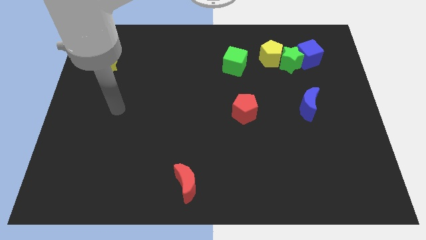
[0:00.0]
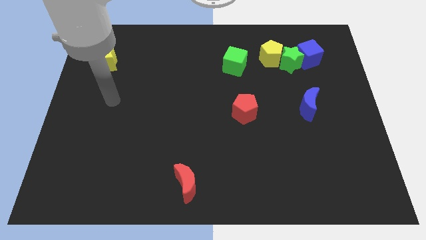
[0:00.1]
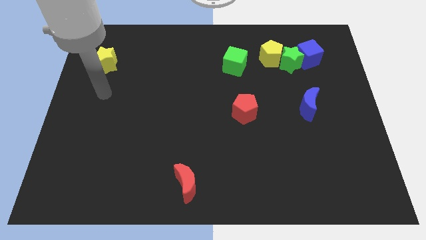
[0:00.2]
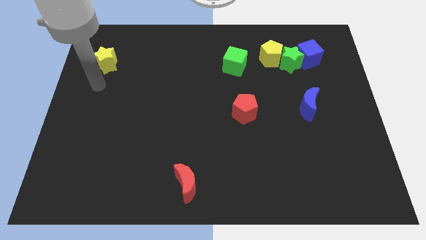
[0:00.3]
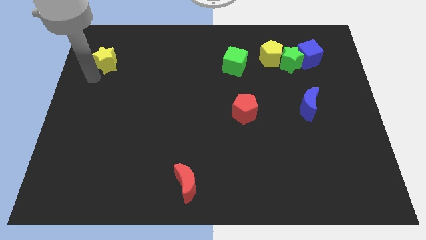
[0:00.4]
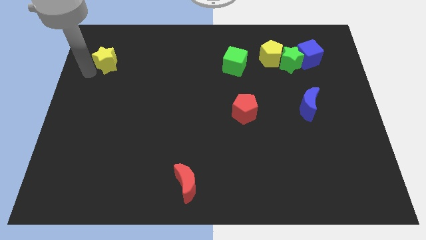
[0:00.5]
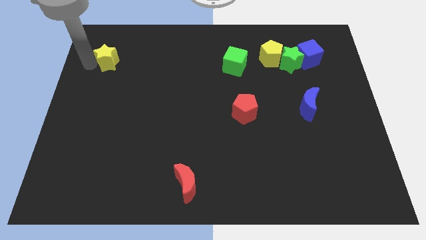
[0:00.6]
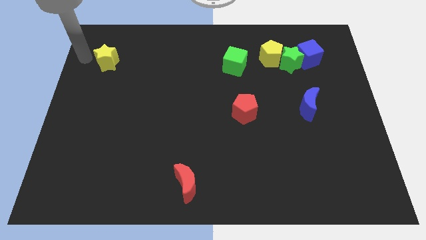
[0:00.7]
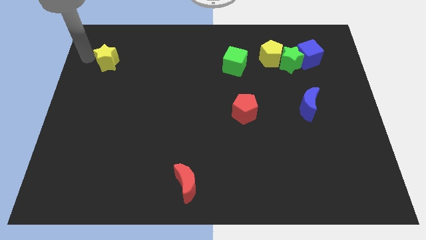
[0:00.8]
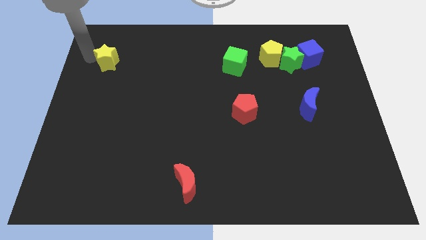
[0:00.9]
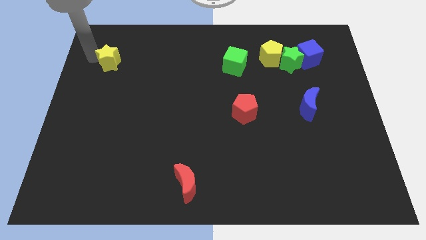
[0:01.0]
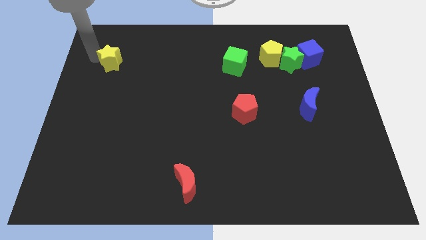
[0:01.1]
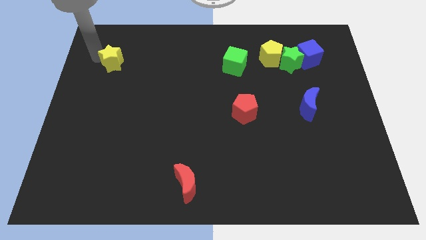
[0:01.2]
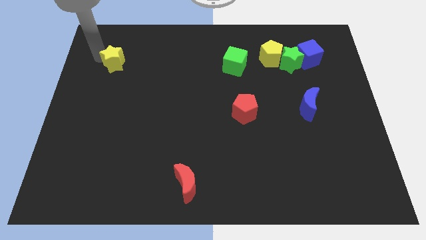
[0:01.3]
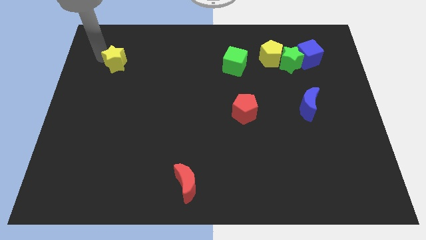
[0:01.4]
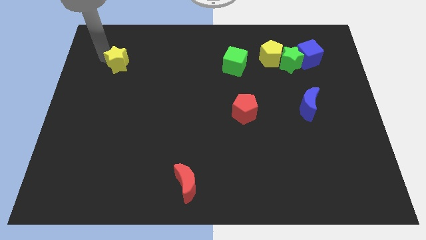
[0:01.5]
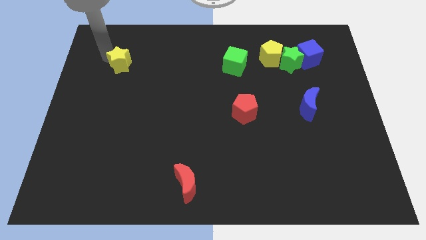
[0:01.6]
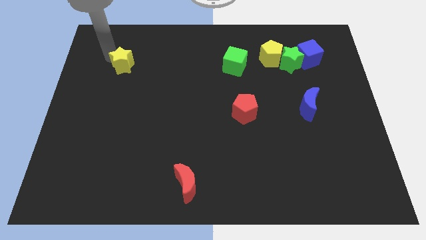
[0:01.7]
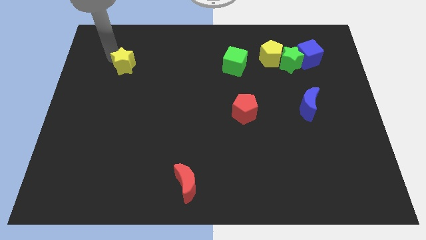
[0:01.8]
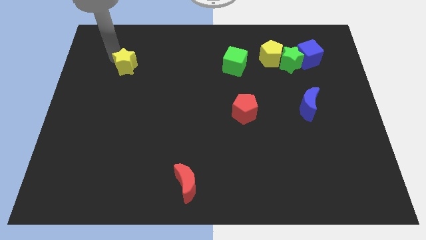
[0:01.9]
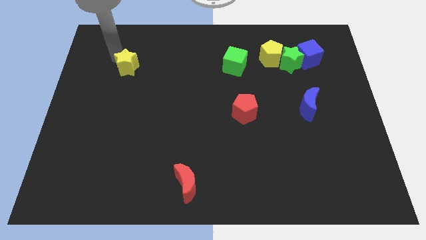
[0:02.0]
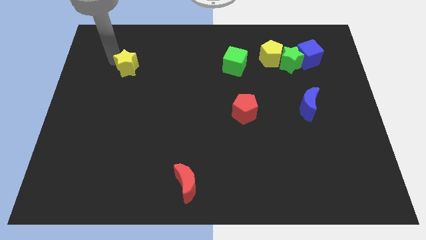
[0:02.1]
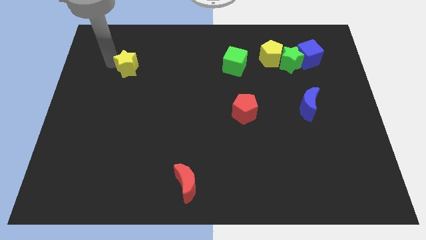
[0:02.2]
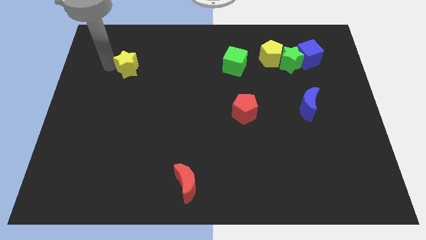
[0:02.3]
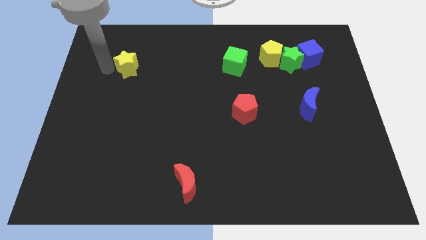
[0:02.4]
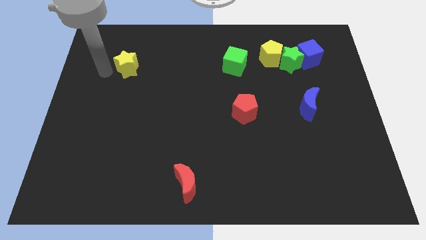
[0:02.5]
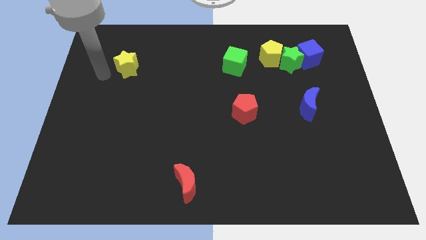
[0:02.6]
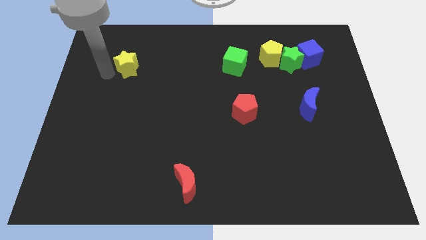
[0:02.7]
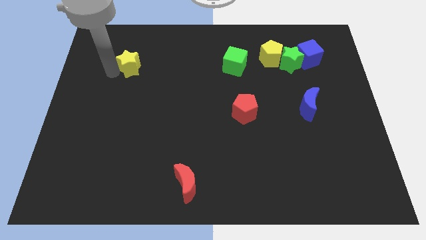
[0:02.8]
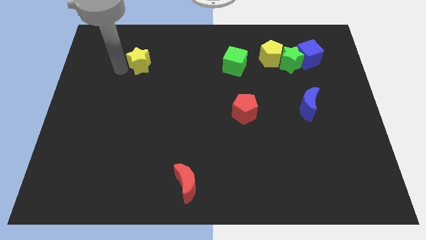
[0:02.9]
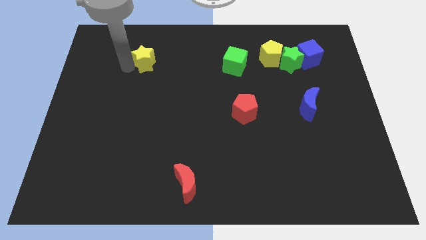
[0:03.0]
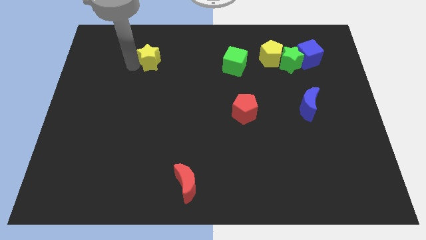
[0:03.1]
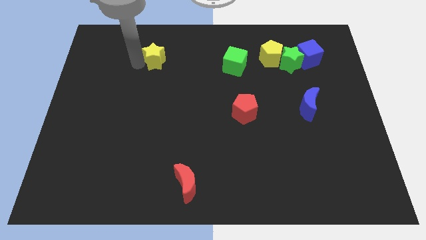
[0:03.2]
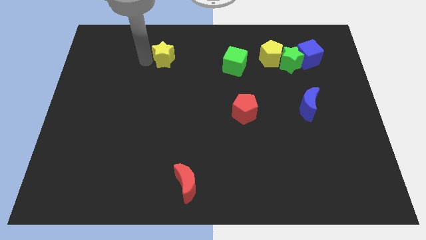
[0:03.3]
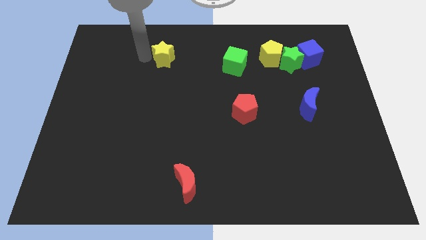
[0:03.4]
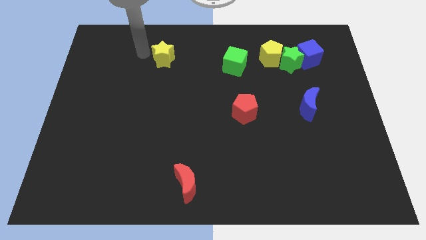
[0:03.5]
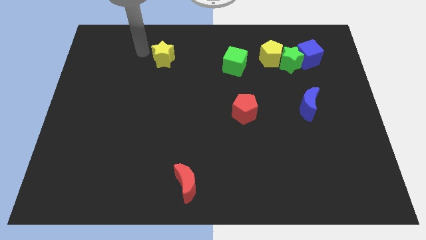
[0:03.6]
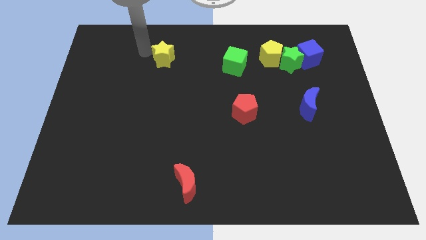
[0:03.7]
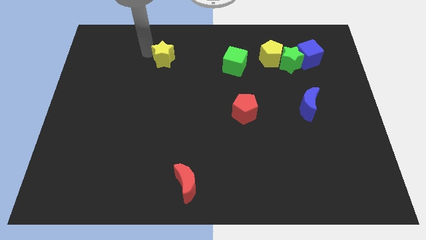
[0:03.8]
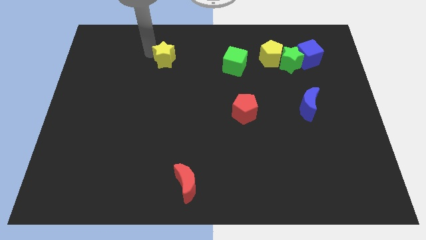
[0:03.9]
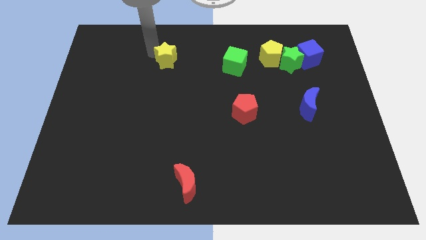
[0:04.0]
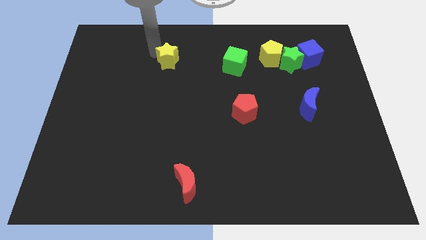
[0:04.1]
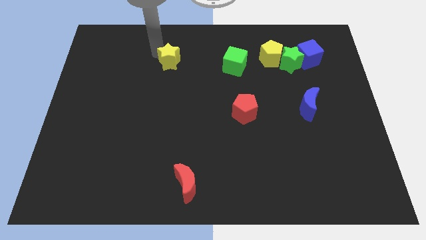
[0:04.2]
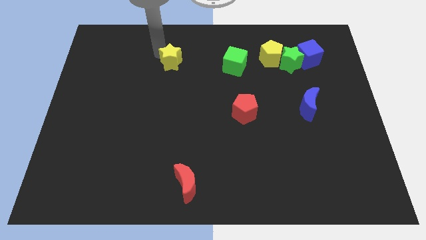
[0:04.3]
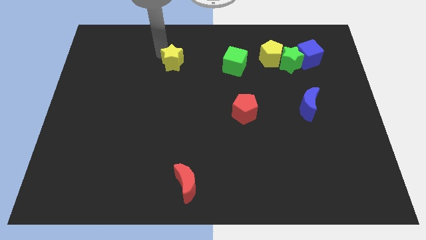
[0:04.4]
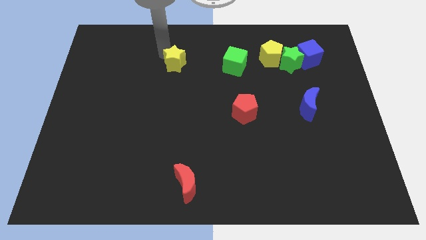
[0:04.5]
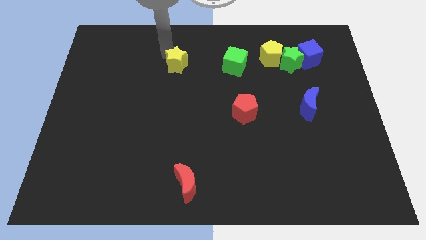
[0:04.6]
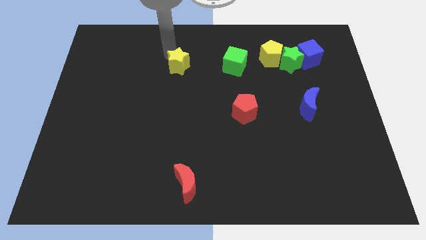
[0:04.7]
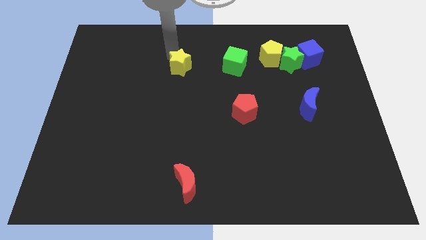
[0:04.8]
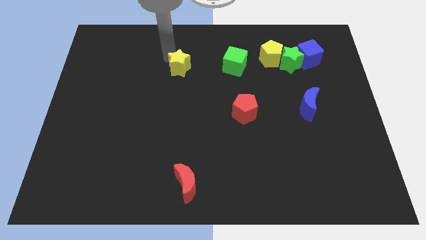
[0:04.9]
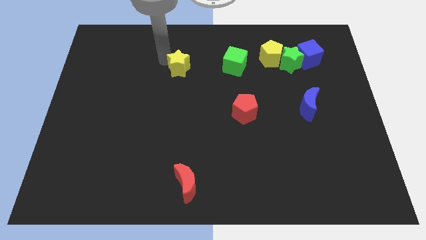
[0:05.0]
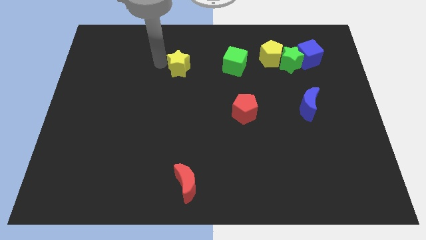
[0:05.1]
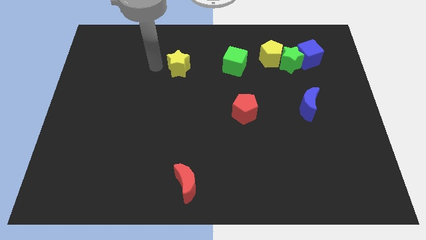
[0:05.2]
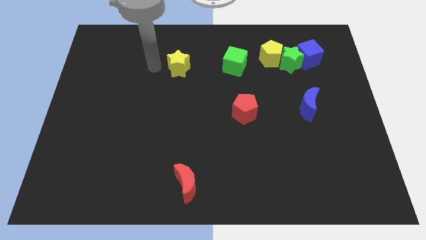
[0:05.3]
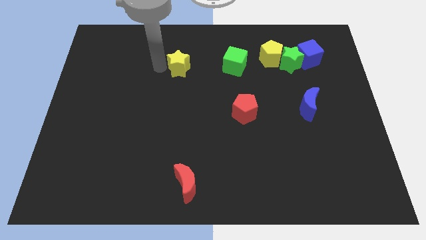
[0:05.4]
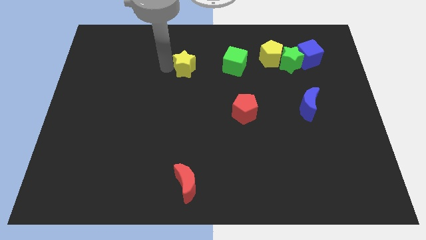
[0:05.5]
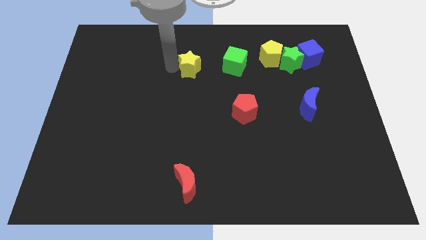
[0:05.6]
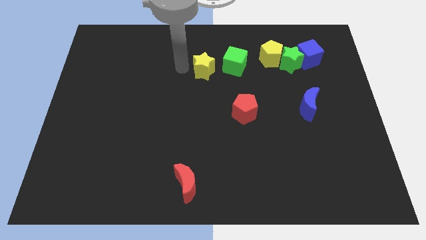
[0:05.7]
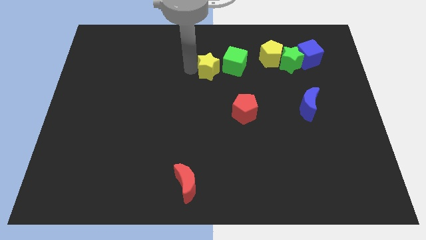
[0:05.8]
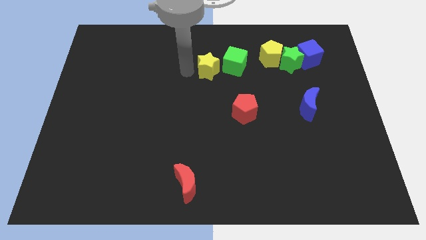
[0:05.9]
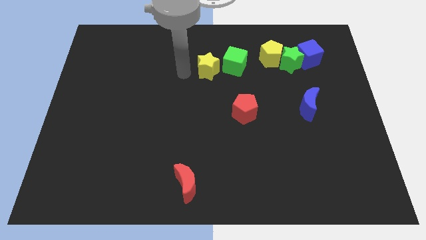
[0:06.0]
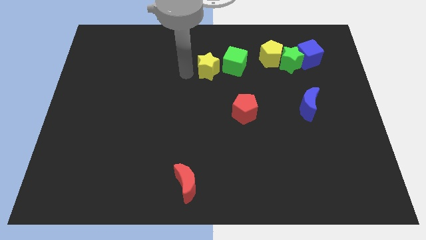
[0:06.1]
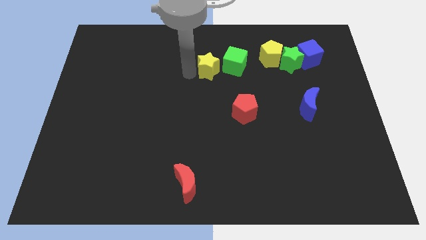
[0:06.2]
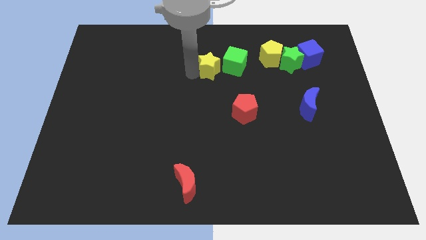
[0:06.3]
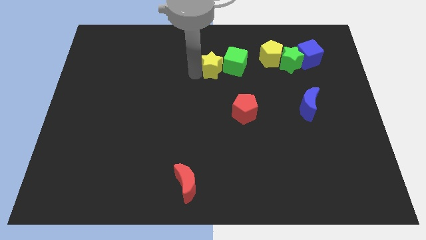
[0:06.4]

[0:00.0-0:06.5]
push the yellow star towards the green cube

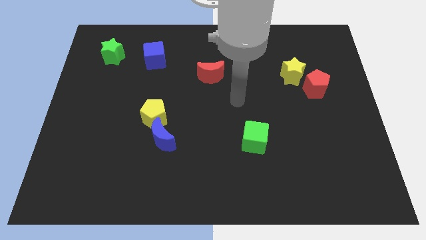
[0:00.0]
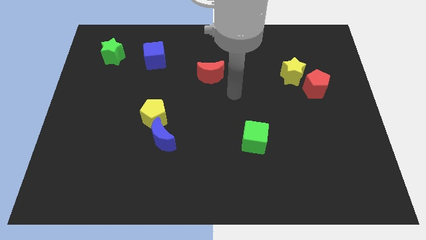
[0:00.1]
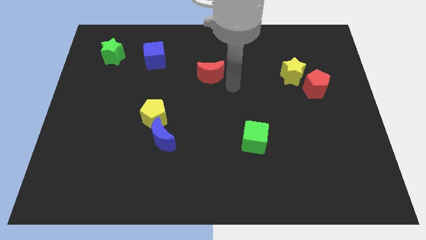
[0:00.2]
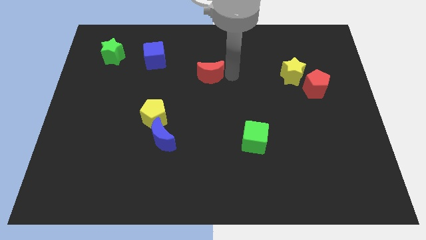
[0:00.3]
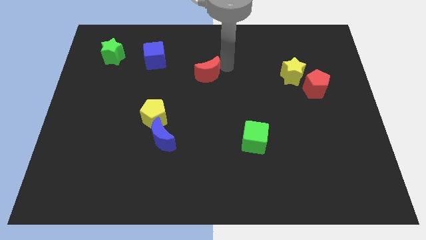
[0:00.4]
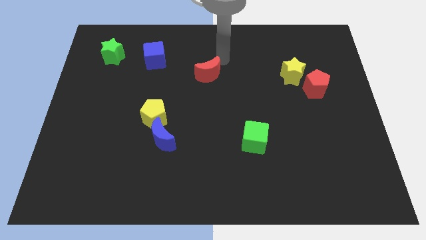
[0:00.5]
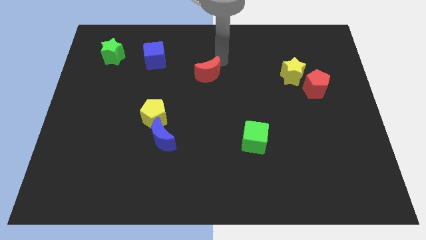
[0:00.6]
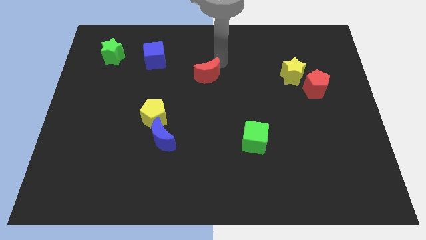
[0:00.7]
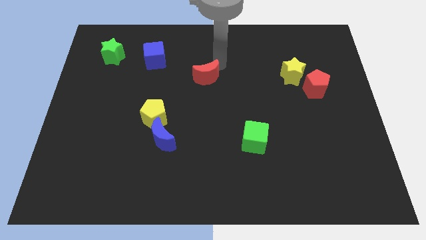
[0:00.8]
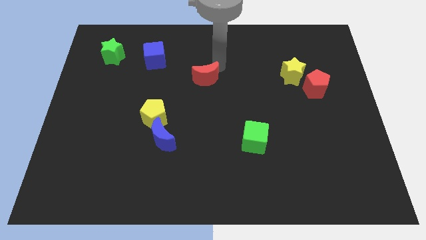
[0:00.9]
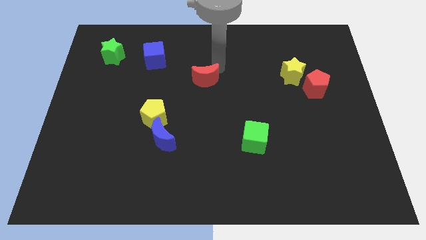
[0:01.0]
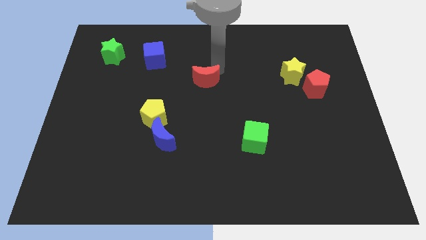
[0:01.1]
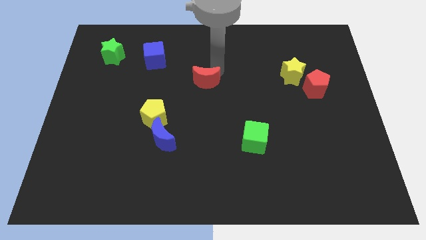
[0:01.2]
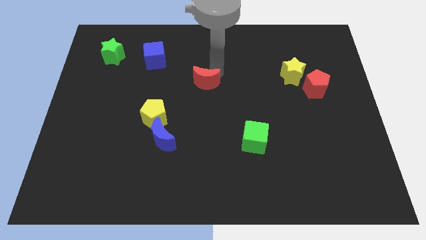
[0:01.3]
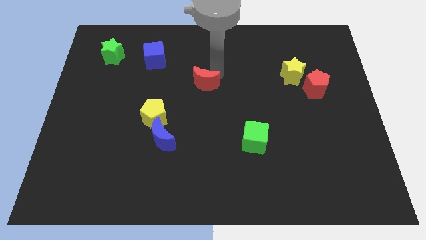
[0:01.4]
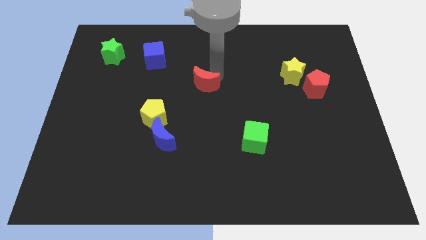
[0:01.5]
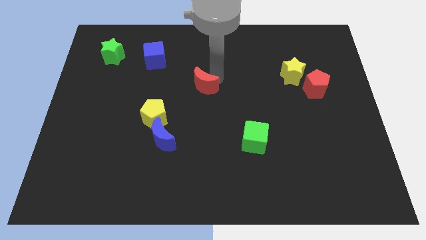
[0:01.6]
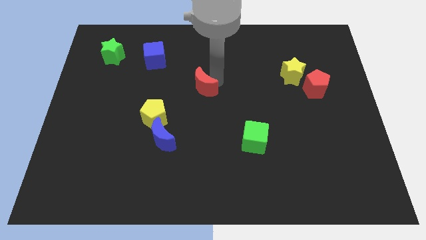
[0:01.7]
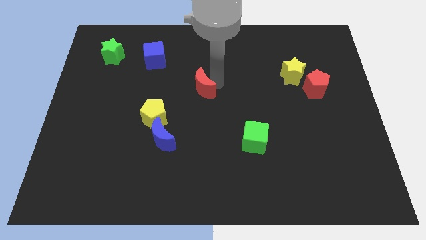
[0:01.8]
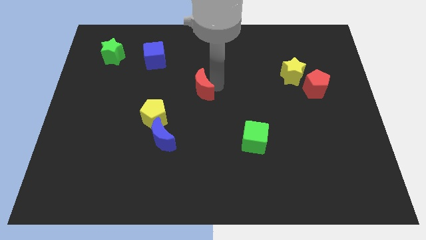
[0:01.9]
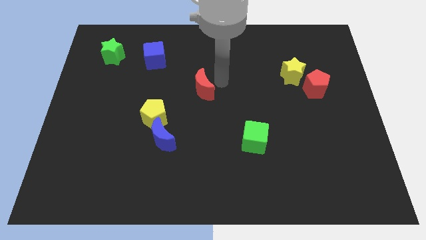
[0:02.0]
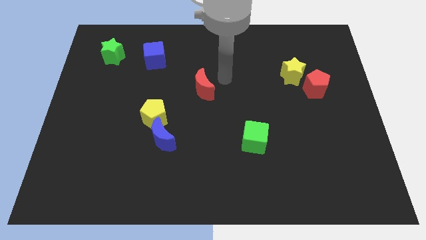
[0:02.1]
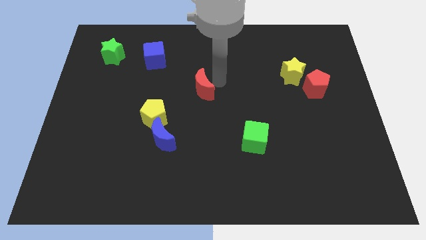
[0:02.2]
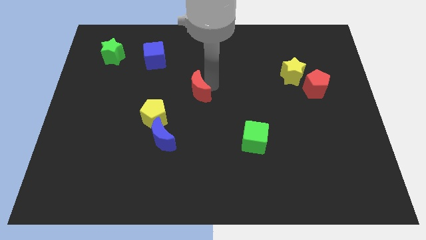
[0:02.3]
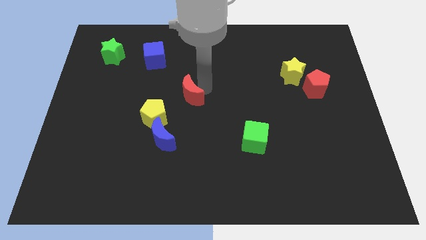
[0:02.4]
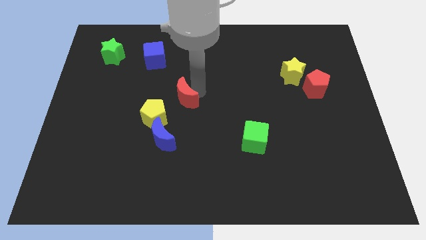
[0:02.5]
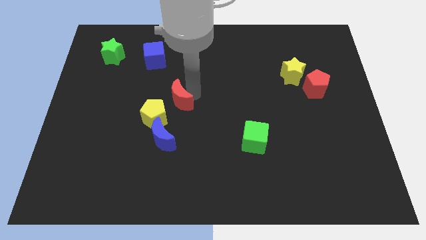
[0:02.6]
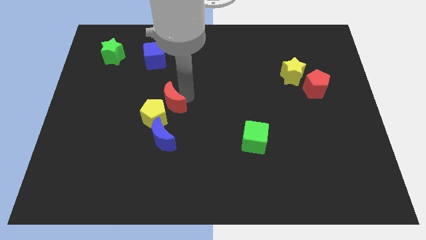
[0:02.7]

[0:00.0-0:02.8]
put the red moon next to the yellow pentagon
